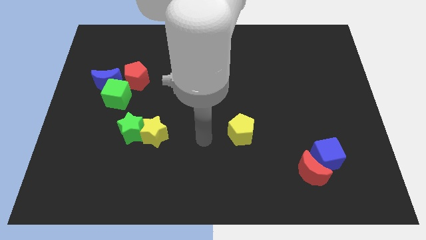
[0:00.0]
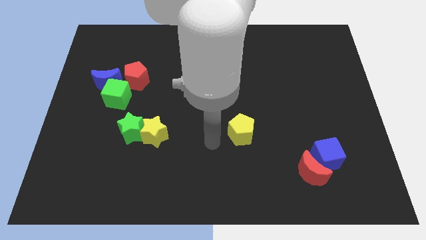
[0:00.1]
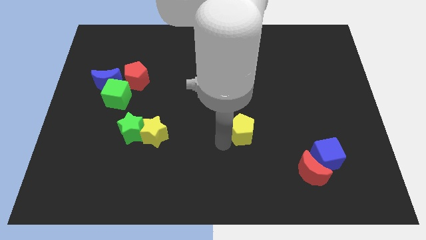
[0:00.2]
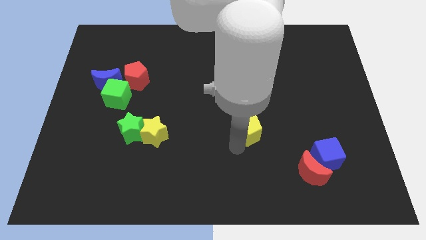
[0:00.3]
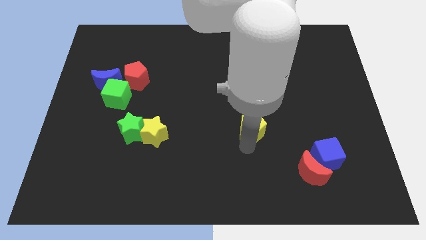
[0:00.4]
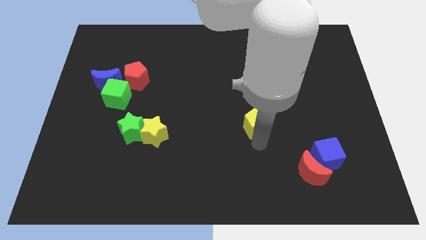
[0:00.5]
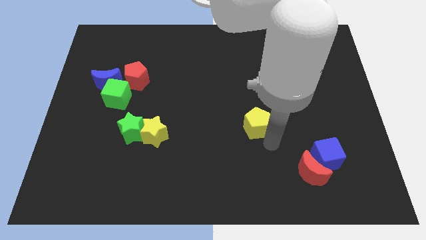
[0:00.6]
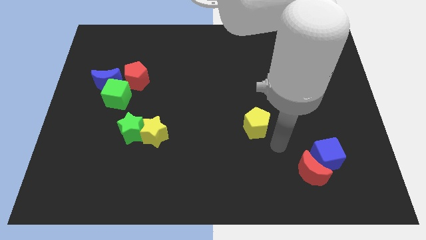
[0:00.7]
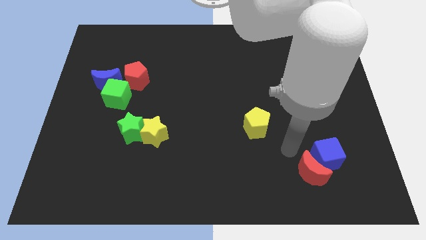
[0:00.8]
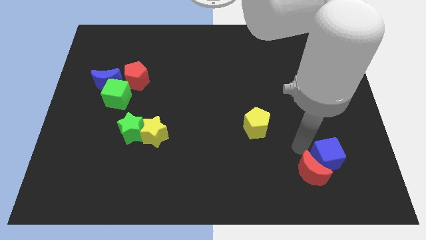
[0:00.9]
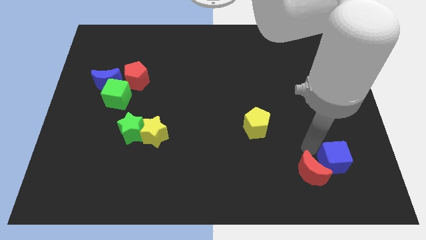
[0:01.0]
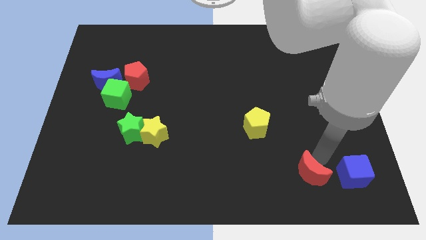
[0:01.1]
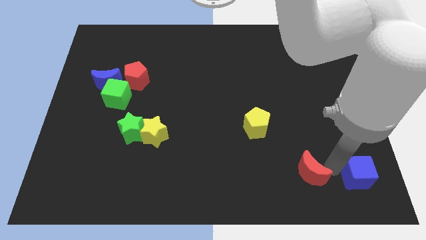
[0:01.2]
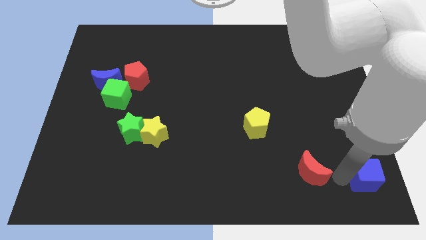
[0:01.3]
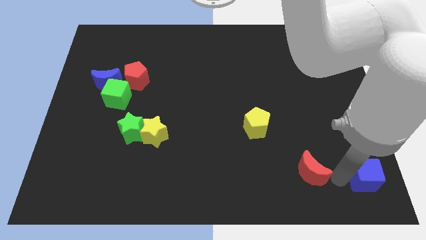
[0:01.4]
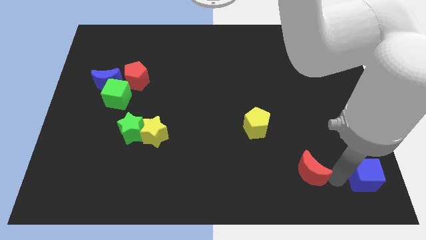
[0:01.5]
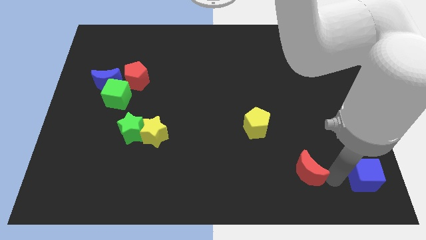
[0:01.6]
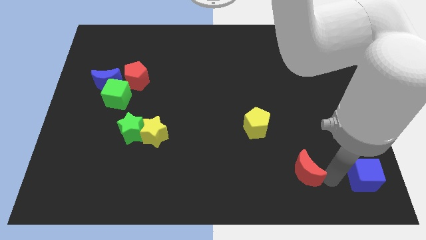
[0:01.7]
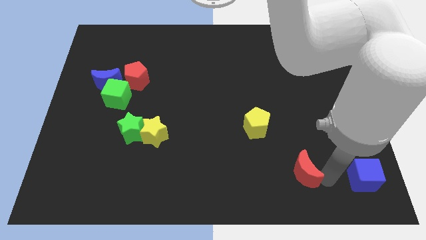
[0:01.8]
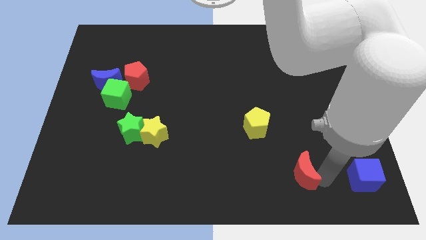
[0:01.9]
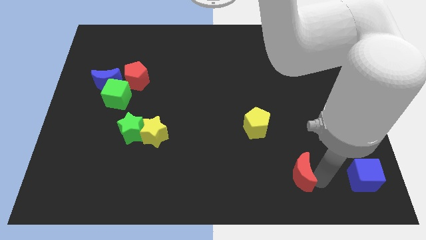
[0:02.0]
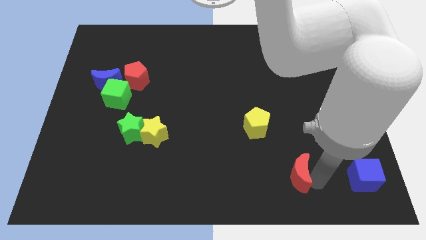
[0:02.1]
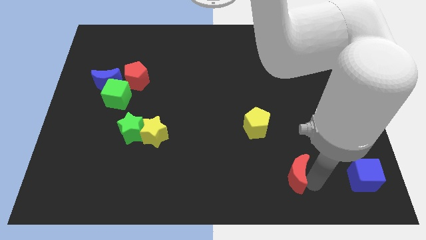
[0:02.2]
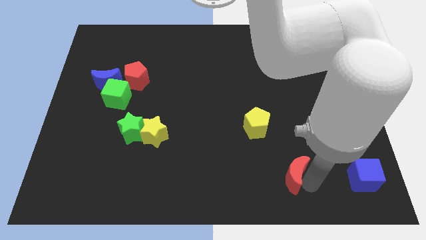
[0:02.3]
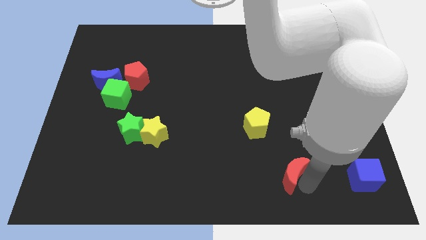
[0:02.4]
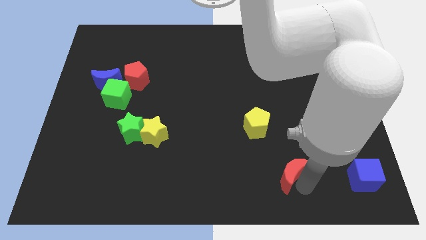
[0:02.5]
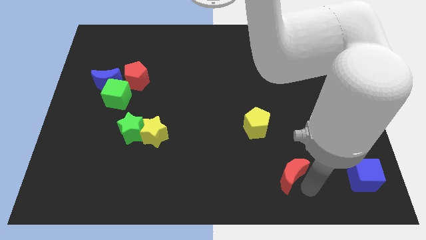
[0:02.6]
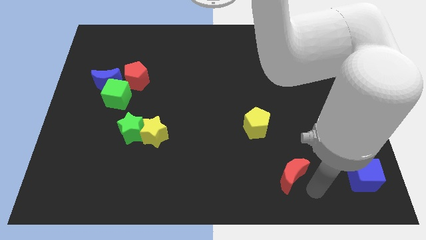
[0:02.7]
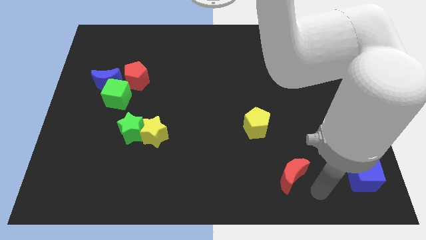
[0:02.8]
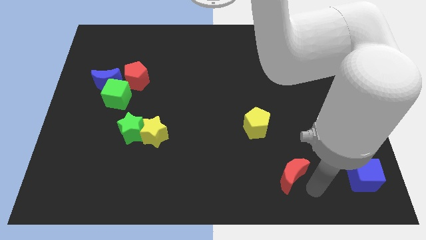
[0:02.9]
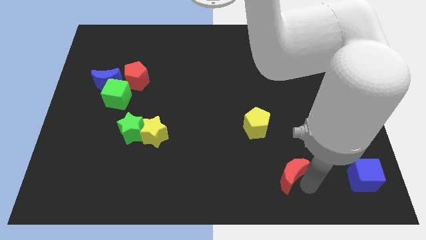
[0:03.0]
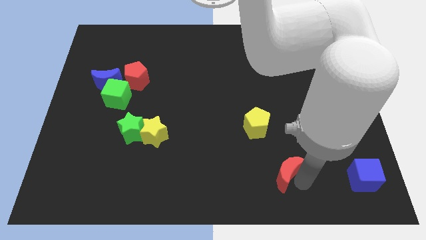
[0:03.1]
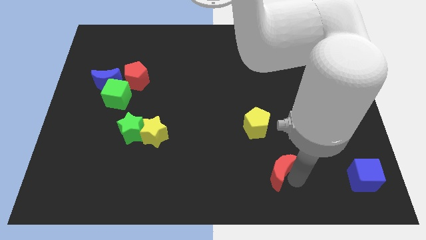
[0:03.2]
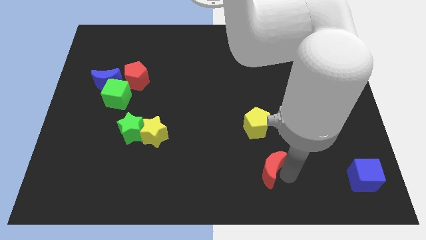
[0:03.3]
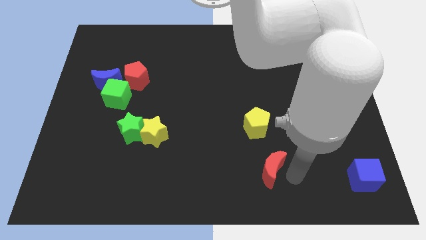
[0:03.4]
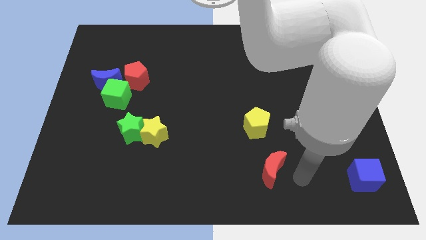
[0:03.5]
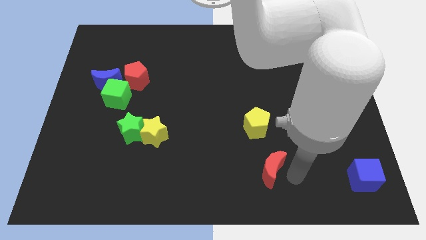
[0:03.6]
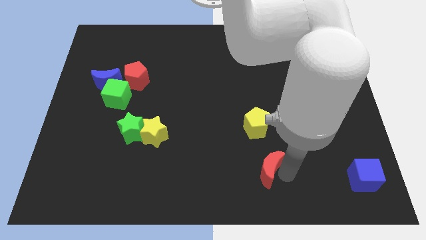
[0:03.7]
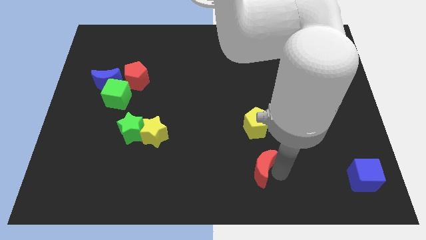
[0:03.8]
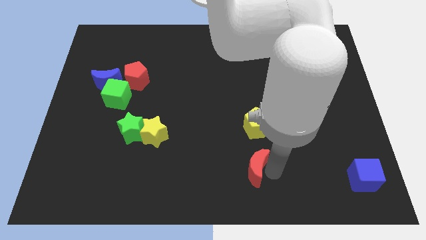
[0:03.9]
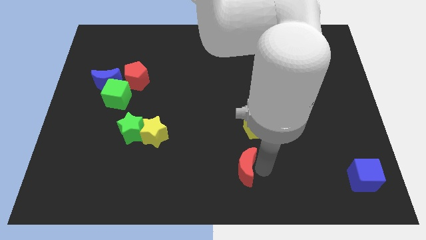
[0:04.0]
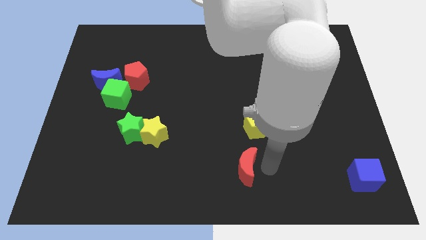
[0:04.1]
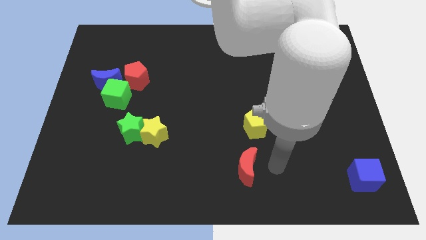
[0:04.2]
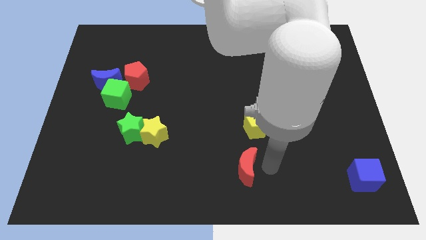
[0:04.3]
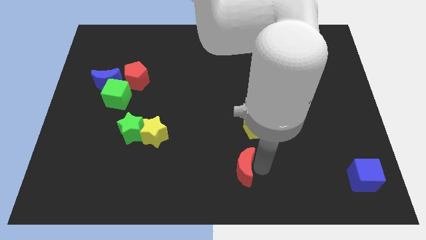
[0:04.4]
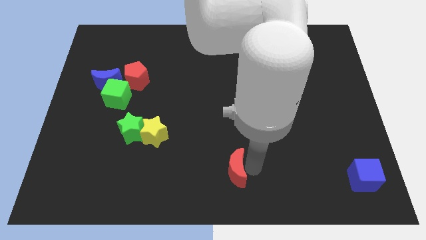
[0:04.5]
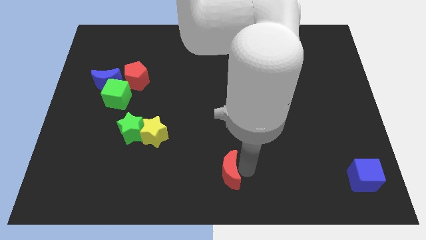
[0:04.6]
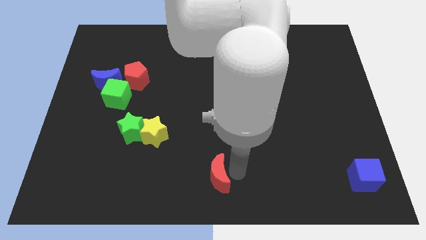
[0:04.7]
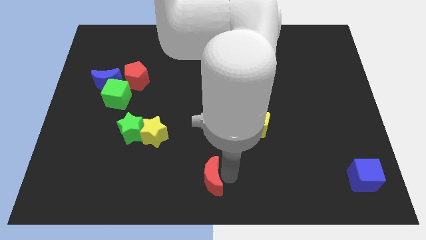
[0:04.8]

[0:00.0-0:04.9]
move the red moon to the left

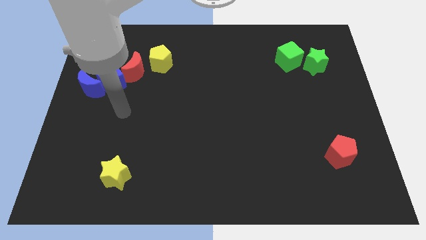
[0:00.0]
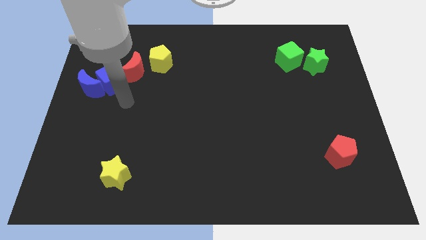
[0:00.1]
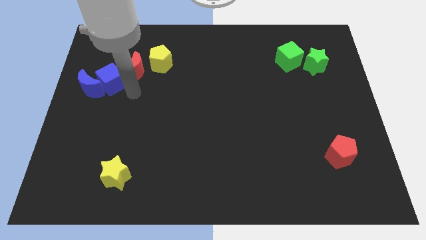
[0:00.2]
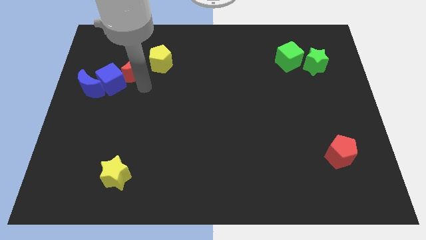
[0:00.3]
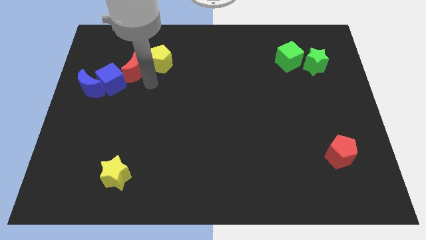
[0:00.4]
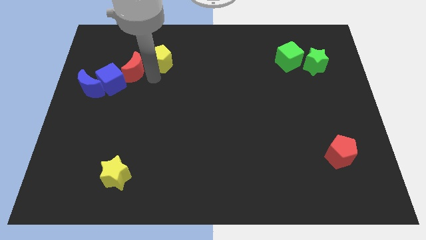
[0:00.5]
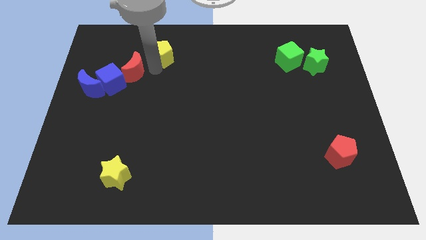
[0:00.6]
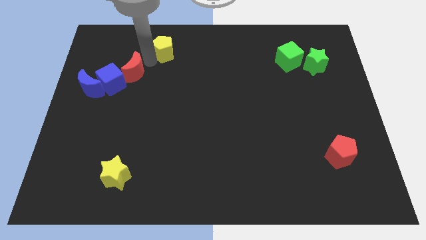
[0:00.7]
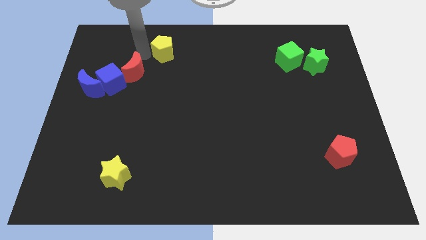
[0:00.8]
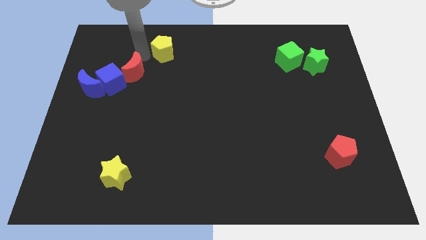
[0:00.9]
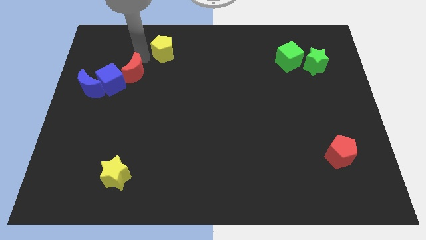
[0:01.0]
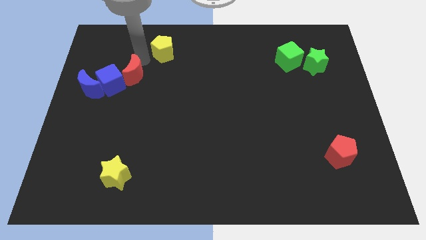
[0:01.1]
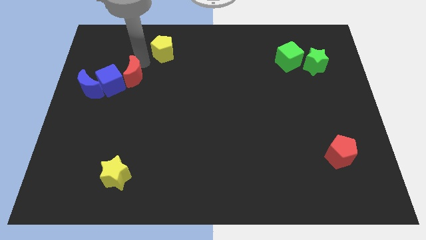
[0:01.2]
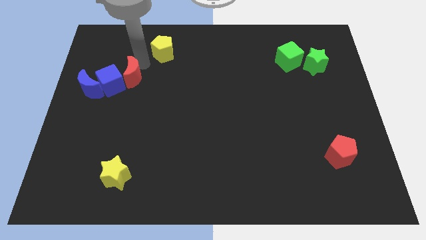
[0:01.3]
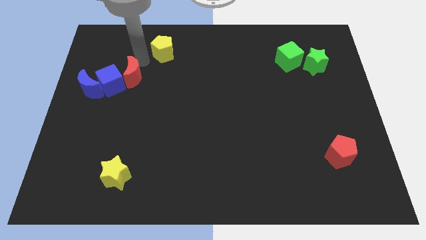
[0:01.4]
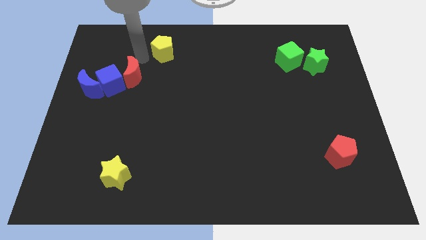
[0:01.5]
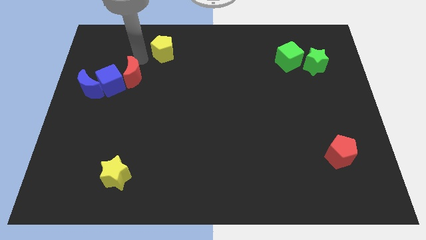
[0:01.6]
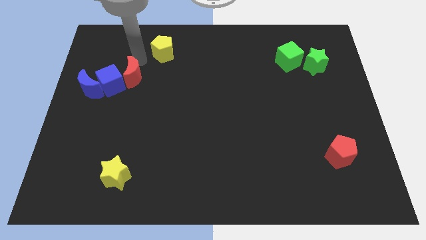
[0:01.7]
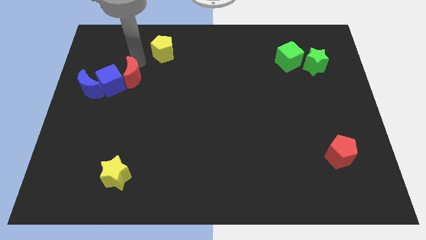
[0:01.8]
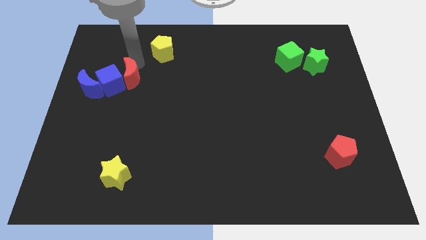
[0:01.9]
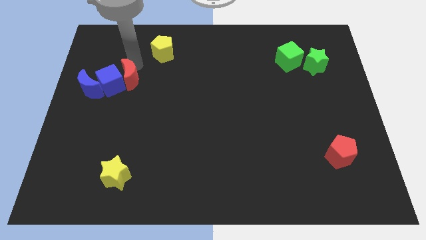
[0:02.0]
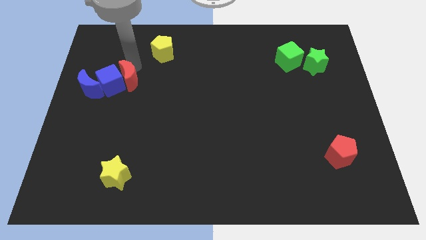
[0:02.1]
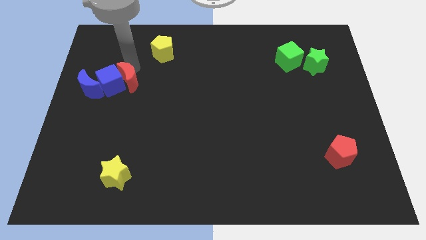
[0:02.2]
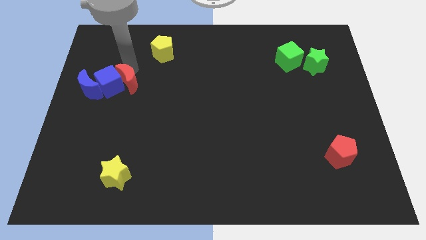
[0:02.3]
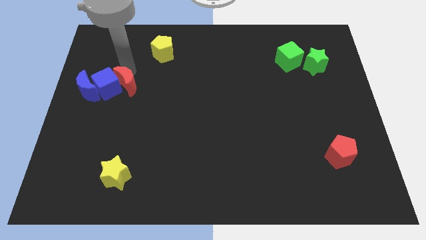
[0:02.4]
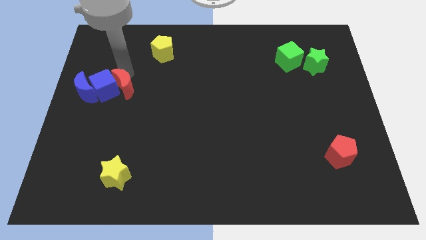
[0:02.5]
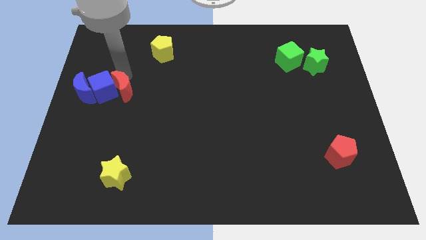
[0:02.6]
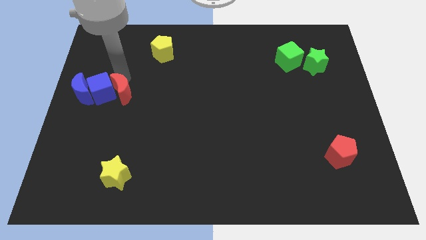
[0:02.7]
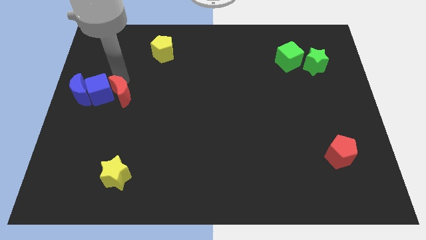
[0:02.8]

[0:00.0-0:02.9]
slightly move the red moon downwards

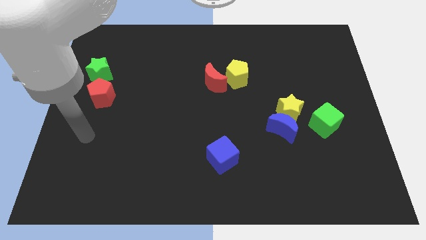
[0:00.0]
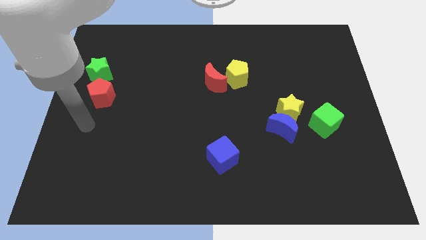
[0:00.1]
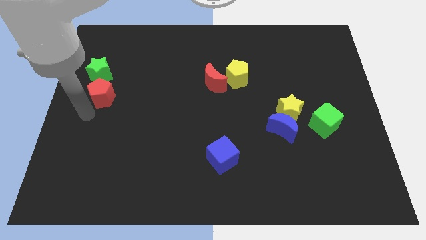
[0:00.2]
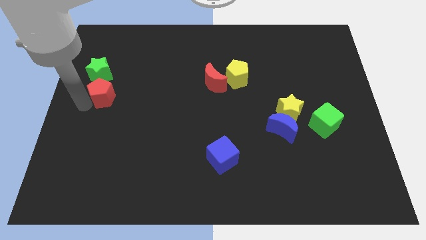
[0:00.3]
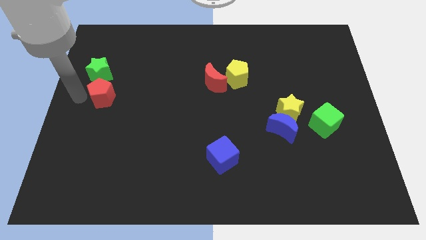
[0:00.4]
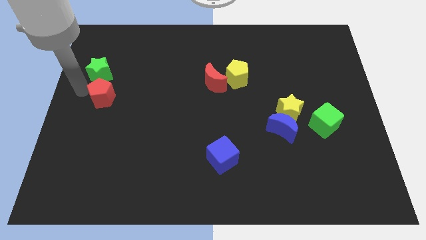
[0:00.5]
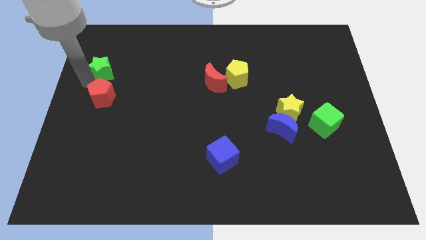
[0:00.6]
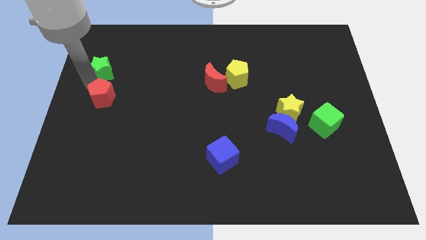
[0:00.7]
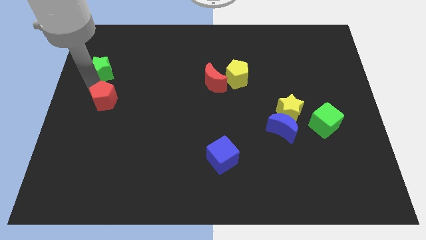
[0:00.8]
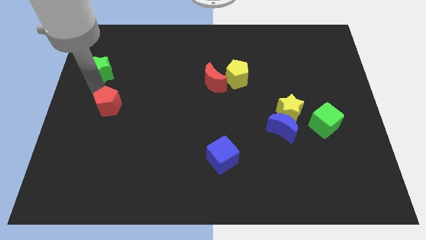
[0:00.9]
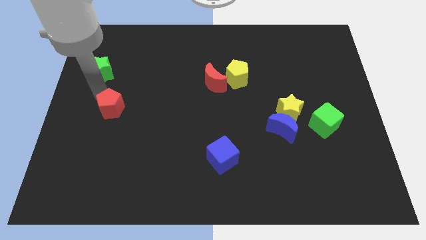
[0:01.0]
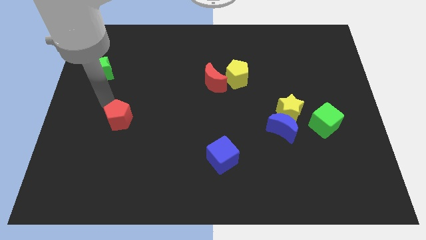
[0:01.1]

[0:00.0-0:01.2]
slide the red pentagon a little bit downwards and to the right diagonally
